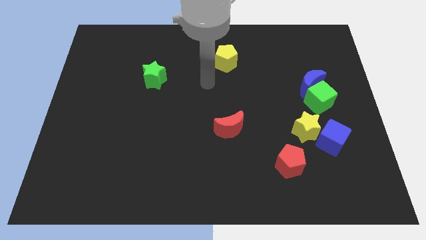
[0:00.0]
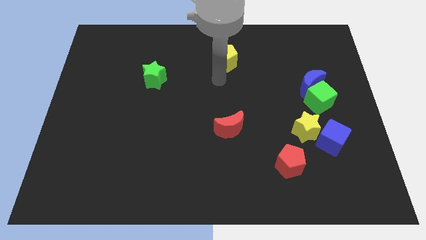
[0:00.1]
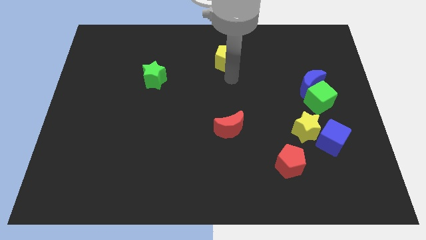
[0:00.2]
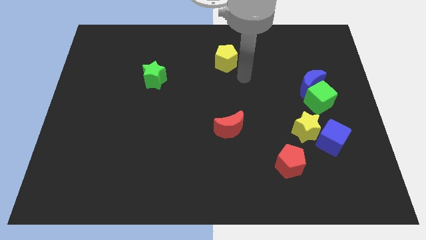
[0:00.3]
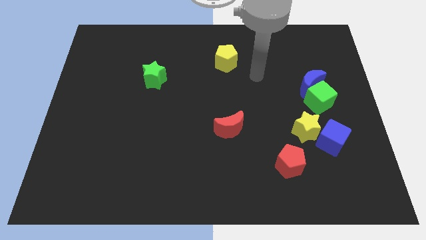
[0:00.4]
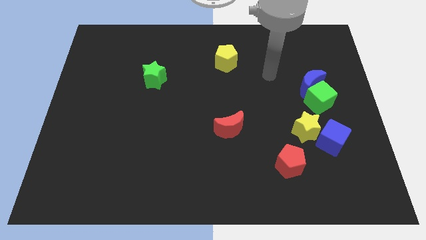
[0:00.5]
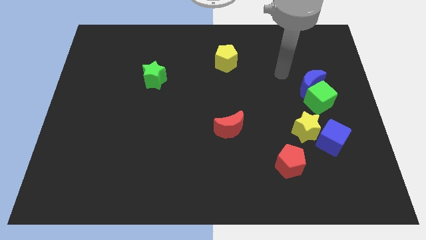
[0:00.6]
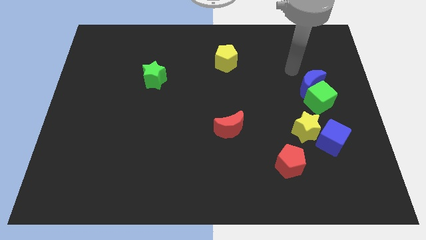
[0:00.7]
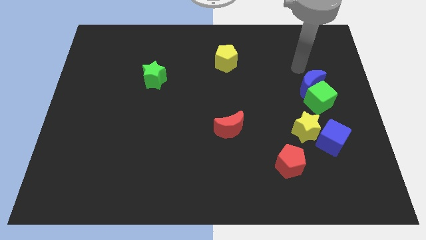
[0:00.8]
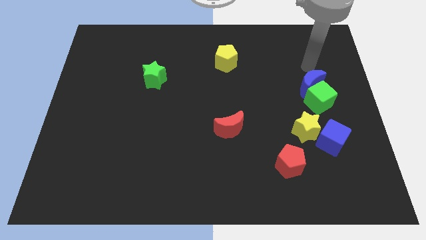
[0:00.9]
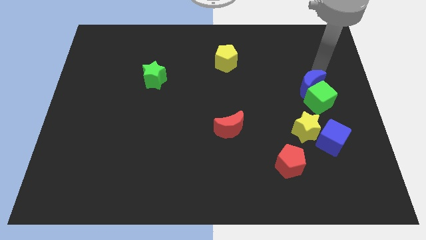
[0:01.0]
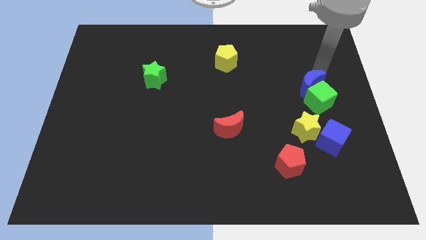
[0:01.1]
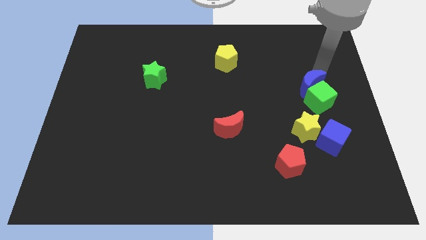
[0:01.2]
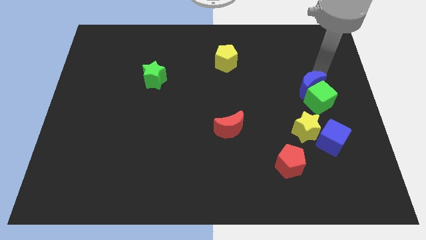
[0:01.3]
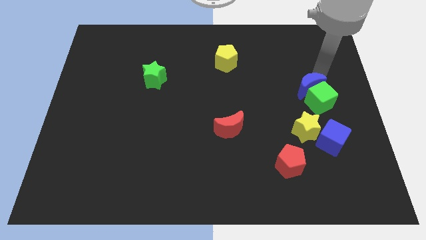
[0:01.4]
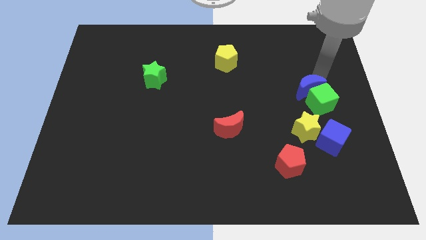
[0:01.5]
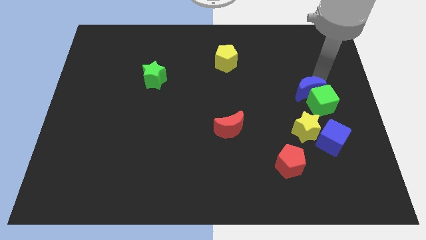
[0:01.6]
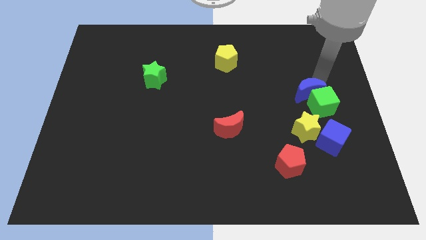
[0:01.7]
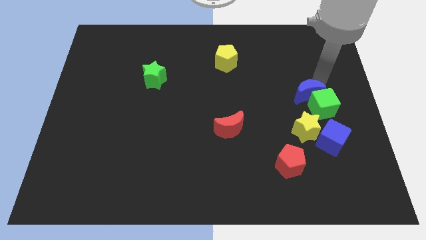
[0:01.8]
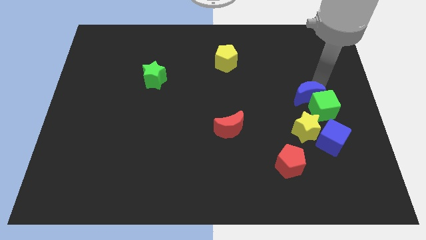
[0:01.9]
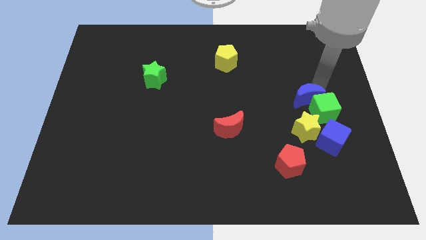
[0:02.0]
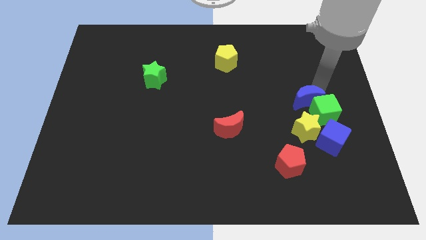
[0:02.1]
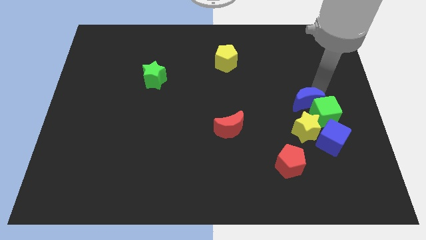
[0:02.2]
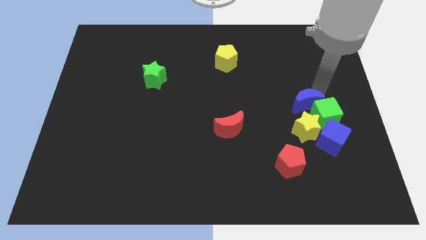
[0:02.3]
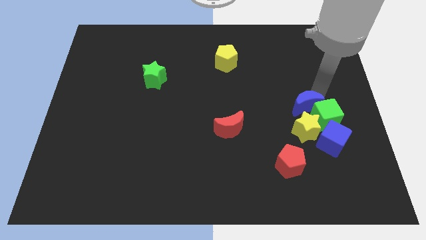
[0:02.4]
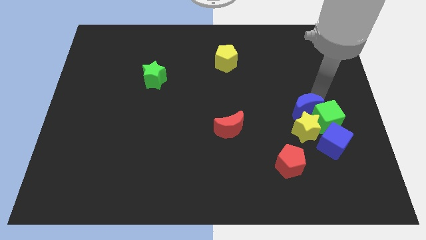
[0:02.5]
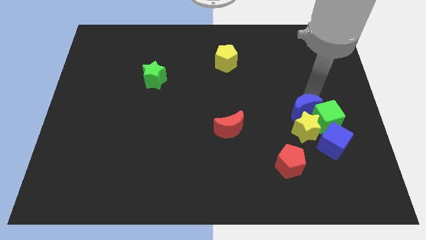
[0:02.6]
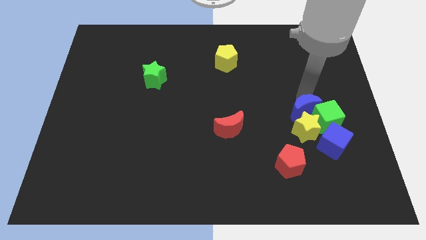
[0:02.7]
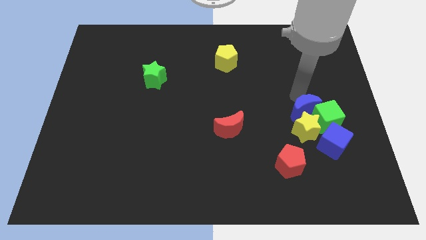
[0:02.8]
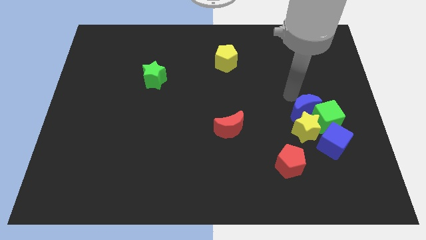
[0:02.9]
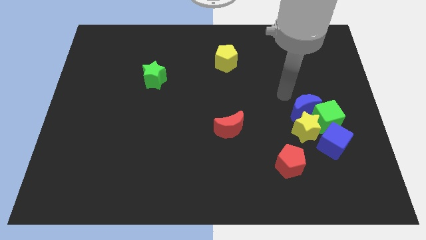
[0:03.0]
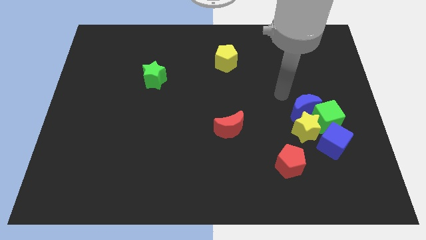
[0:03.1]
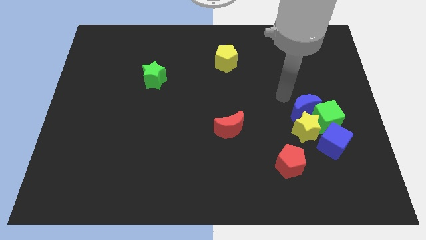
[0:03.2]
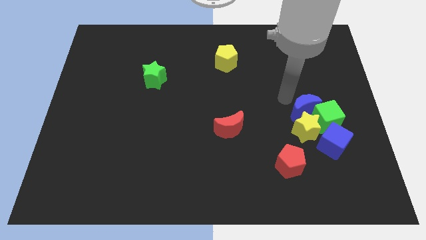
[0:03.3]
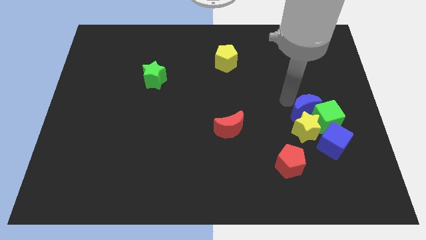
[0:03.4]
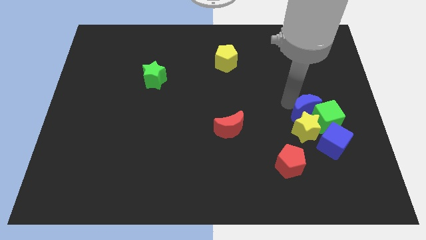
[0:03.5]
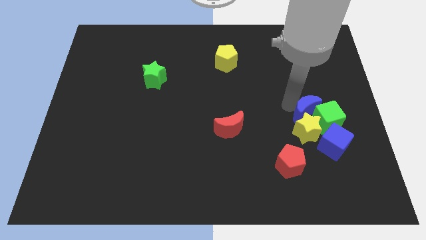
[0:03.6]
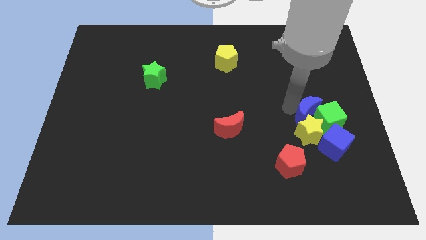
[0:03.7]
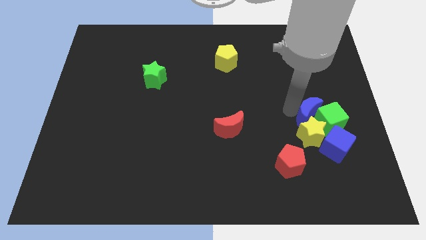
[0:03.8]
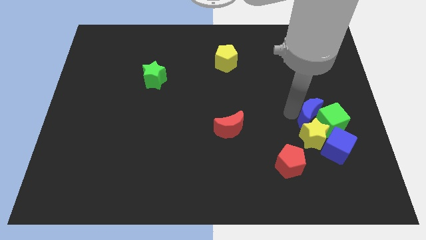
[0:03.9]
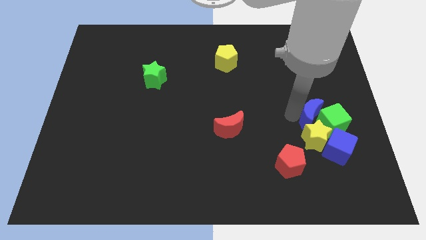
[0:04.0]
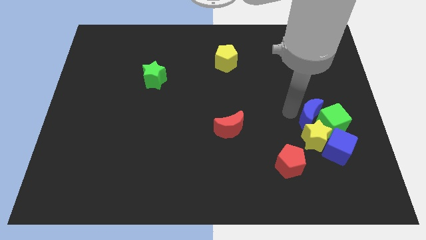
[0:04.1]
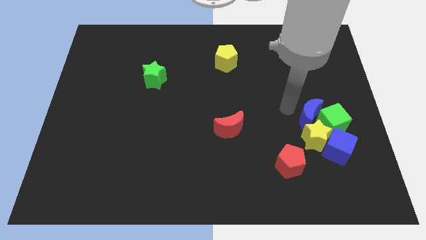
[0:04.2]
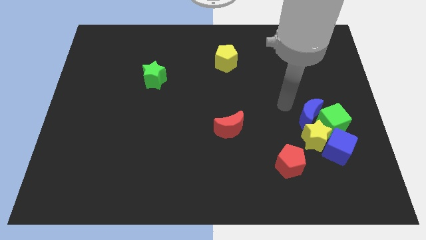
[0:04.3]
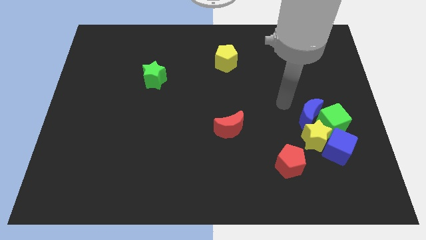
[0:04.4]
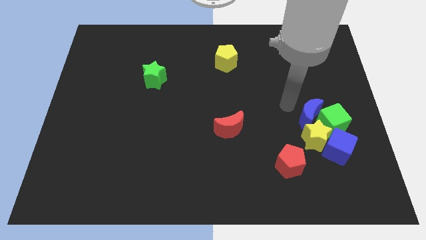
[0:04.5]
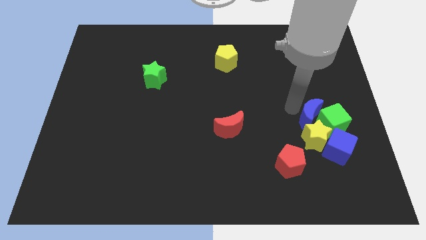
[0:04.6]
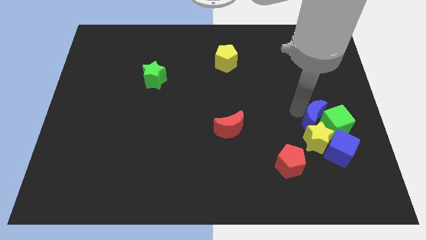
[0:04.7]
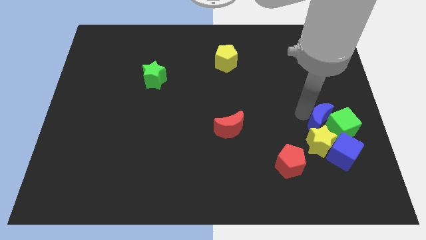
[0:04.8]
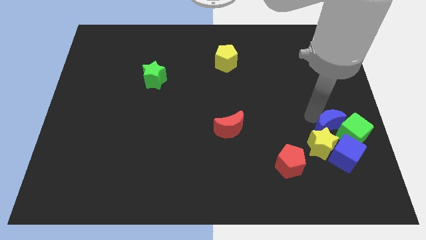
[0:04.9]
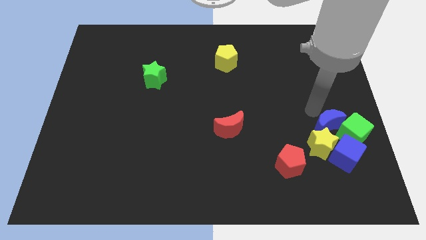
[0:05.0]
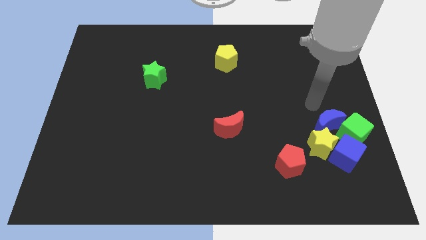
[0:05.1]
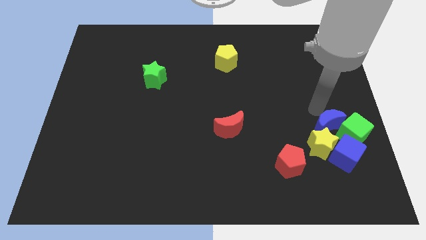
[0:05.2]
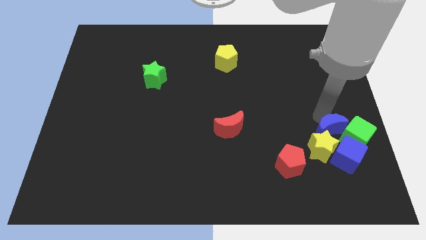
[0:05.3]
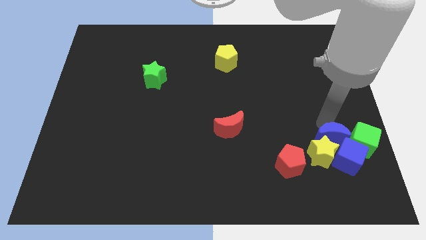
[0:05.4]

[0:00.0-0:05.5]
slide the blue moon next to the blue cube

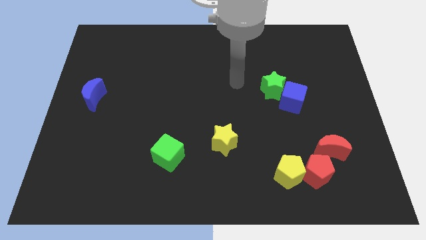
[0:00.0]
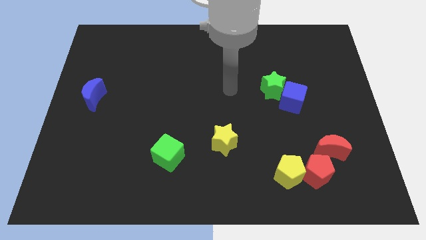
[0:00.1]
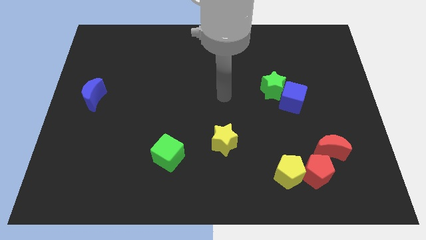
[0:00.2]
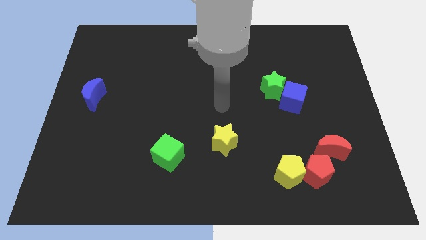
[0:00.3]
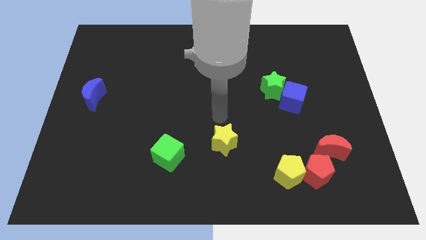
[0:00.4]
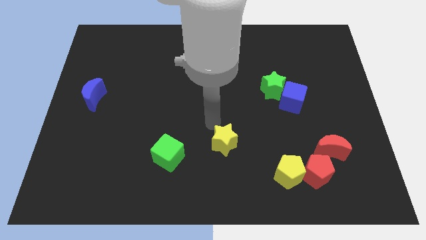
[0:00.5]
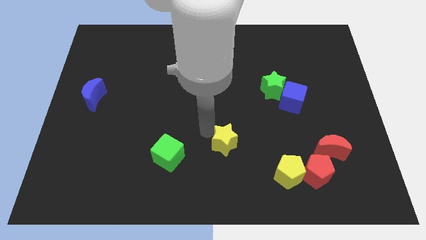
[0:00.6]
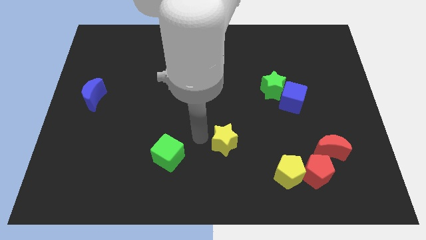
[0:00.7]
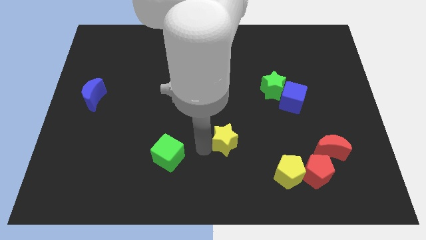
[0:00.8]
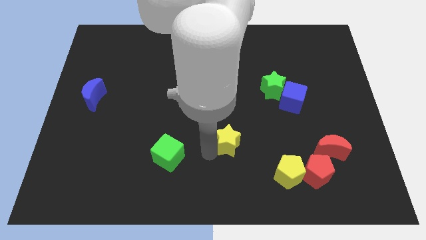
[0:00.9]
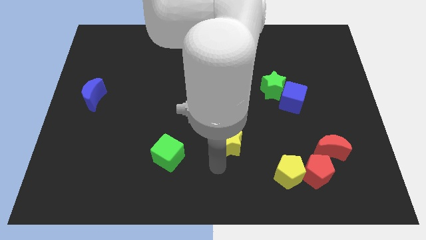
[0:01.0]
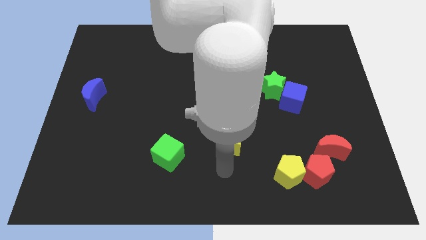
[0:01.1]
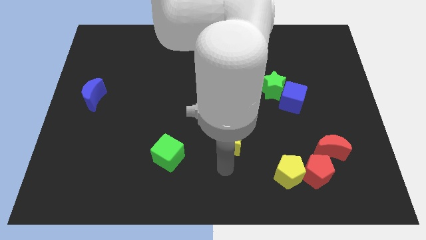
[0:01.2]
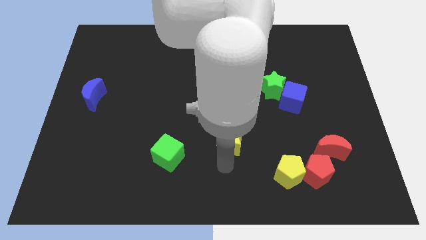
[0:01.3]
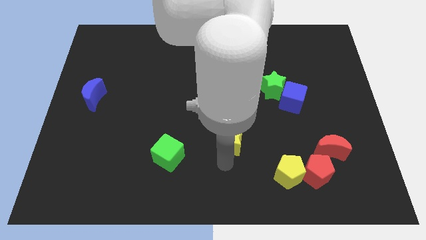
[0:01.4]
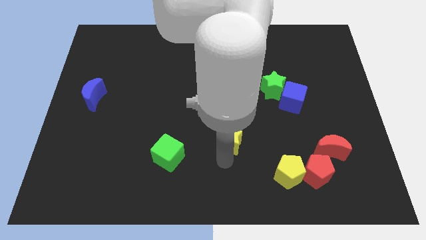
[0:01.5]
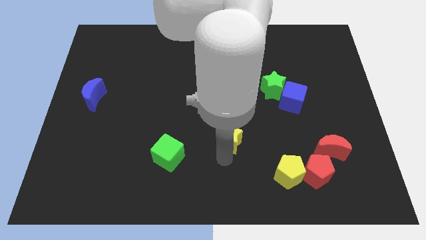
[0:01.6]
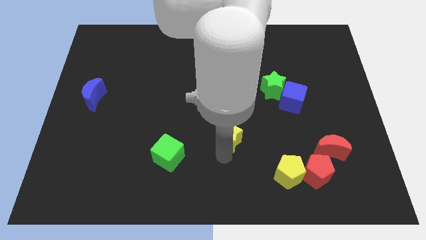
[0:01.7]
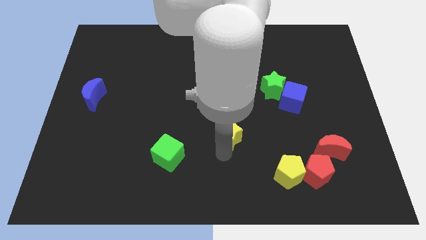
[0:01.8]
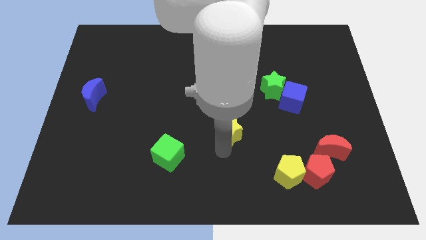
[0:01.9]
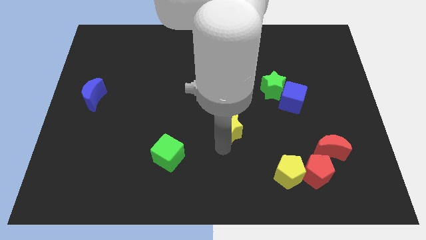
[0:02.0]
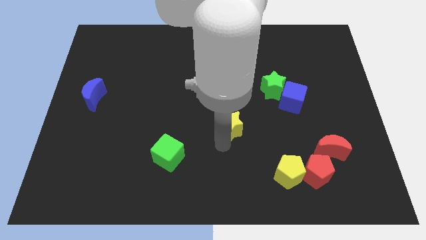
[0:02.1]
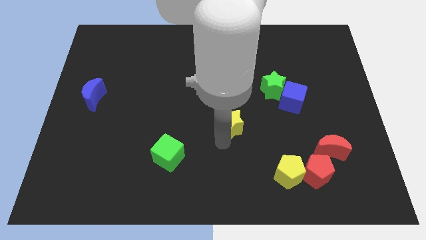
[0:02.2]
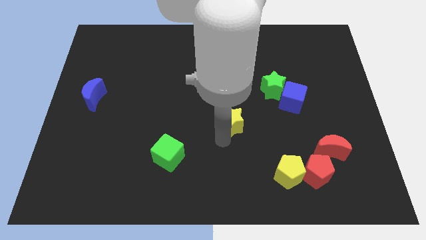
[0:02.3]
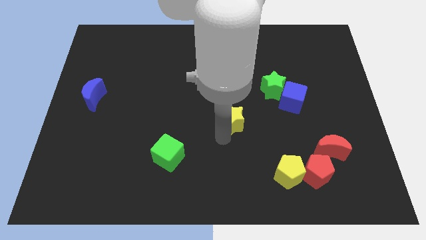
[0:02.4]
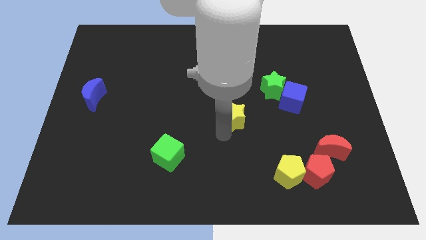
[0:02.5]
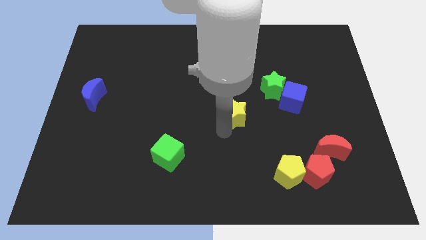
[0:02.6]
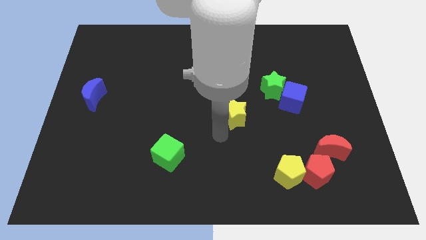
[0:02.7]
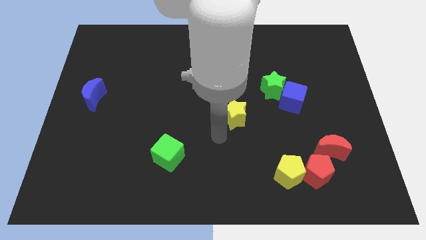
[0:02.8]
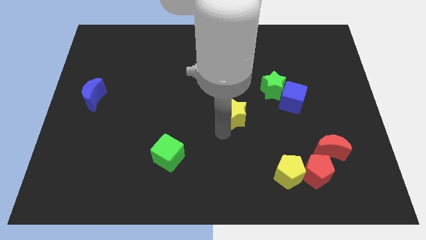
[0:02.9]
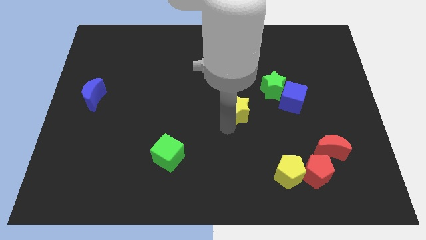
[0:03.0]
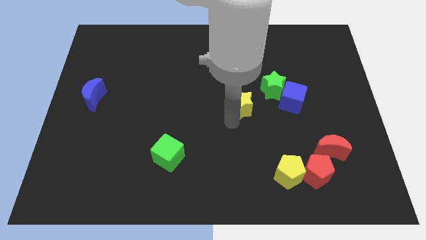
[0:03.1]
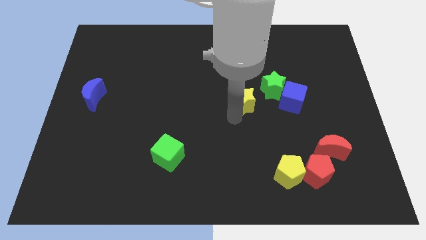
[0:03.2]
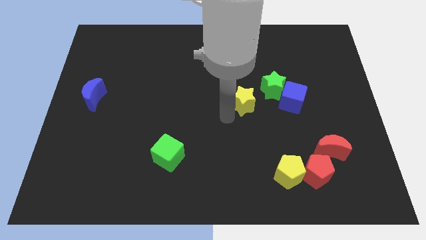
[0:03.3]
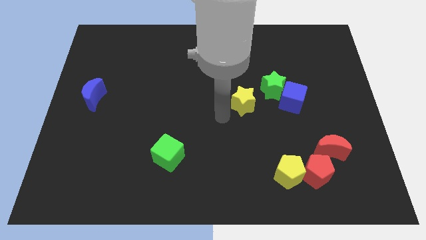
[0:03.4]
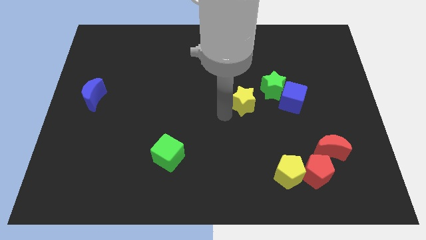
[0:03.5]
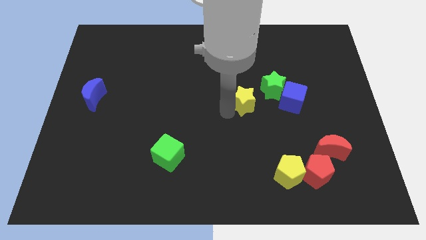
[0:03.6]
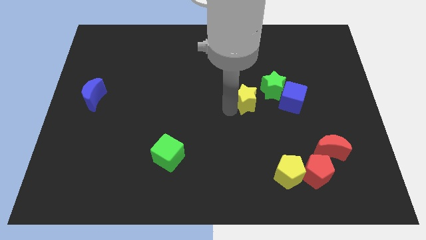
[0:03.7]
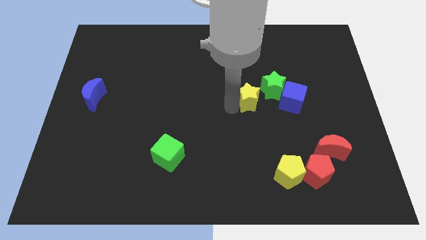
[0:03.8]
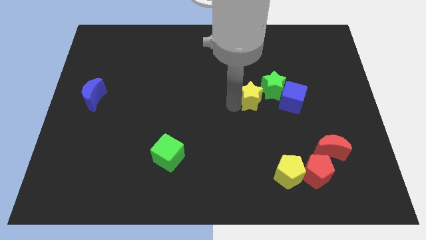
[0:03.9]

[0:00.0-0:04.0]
slide the yellow star towards the green star
